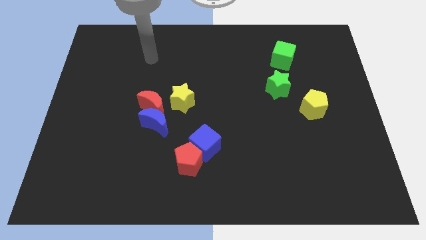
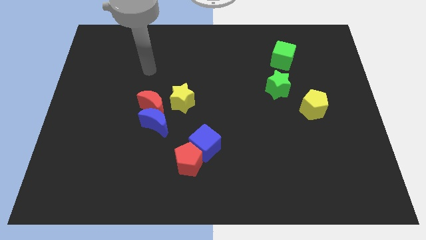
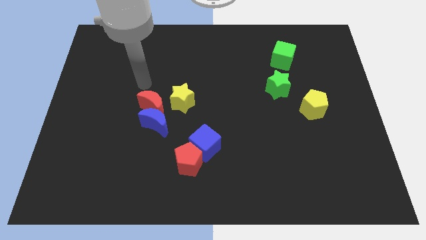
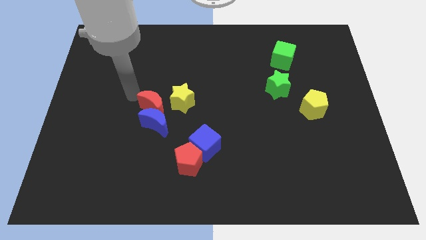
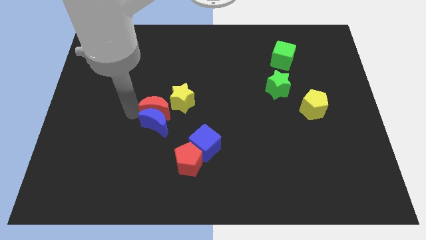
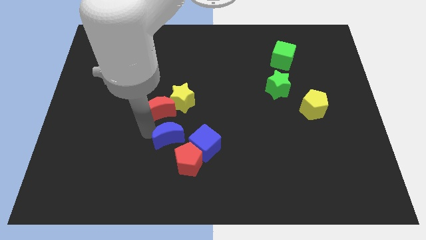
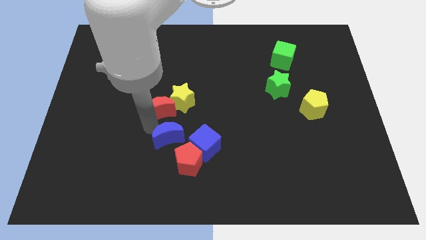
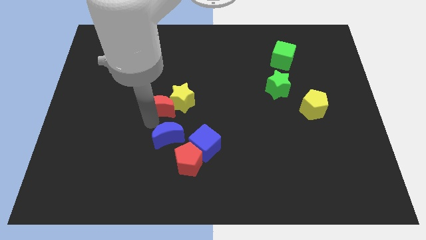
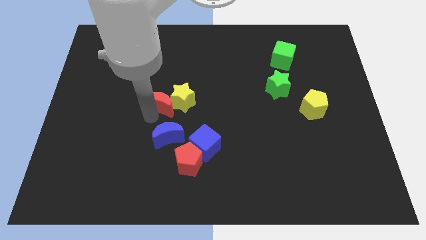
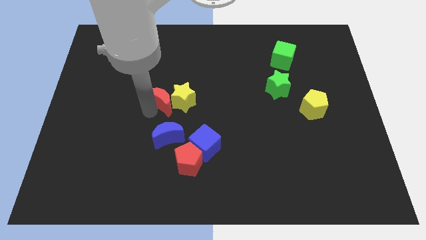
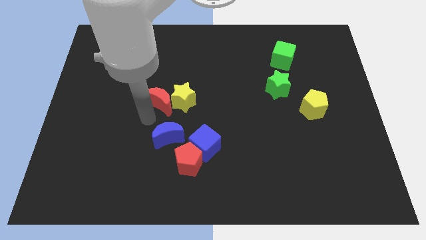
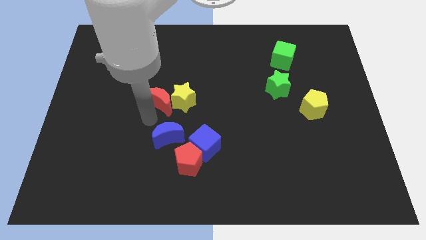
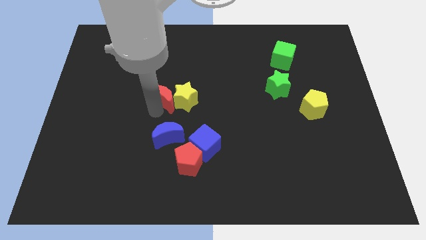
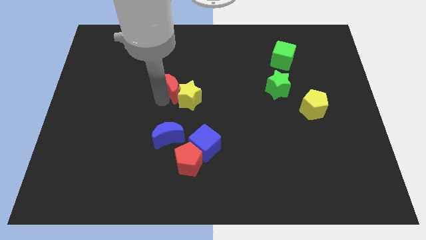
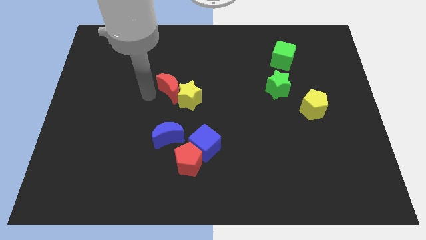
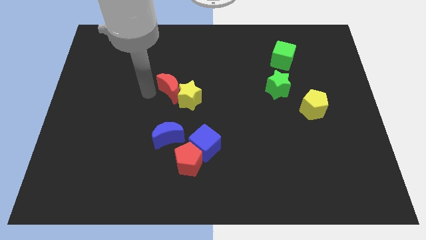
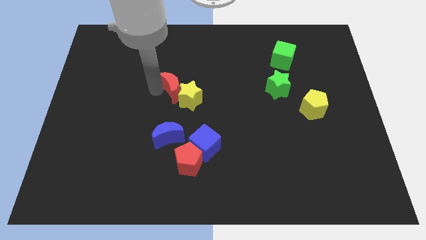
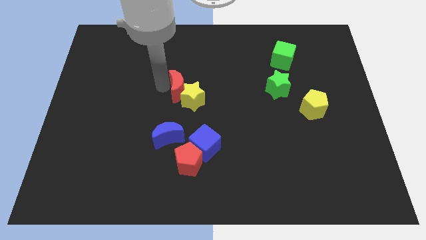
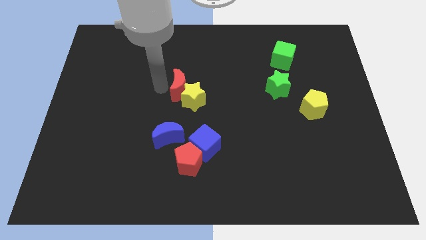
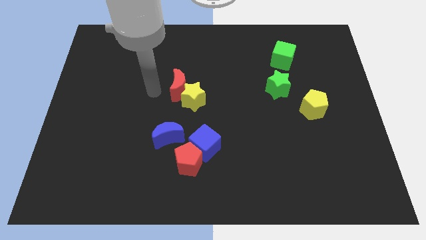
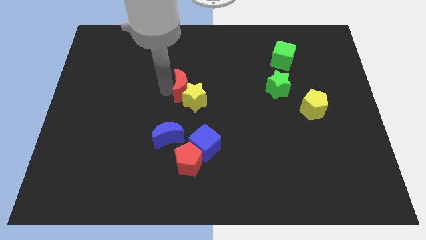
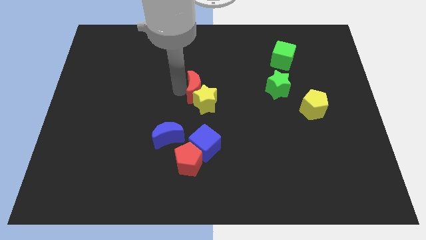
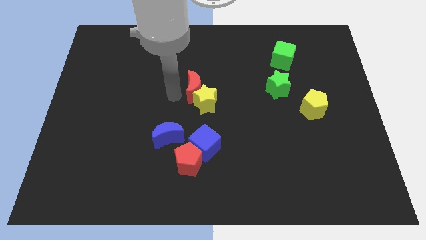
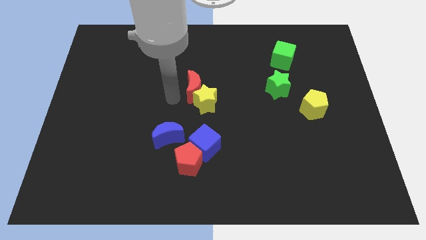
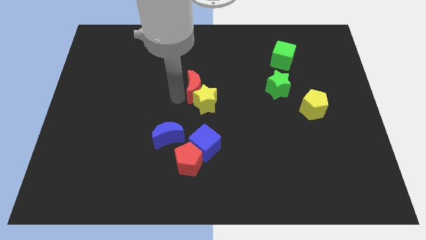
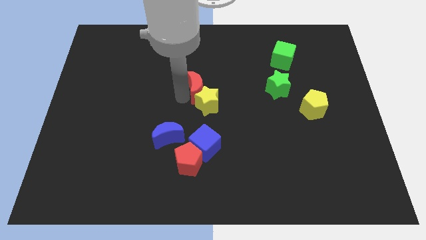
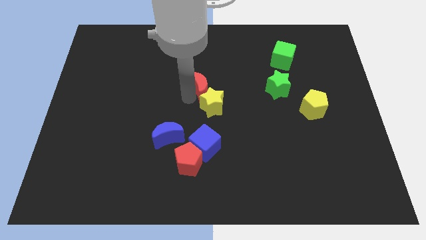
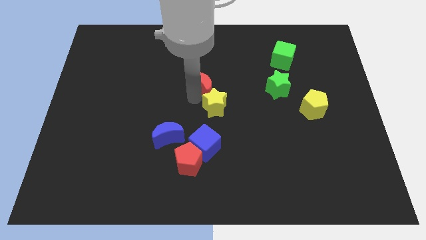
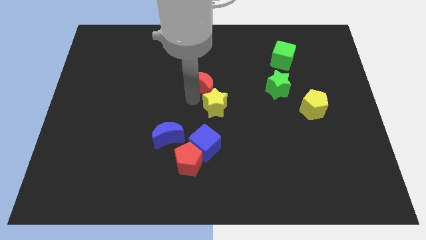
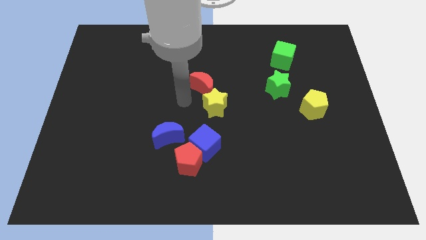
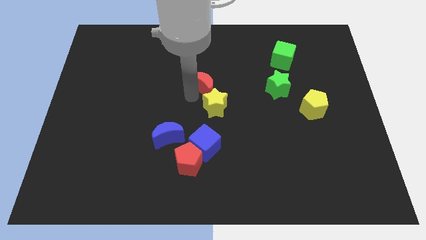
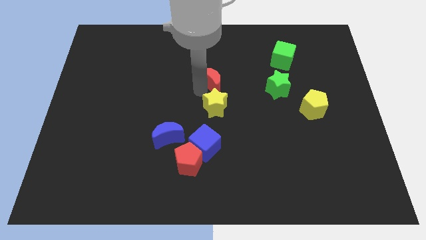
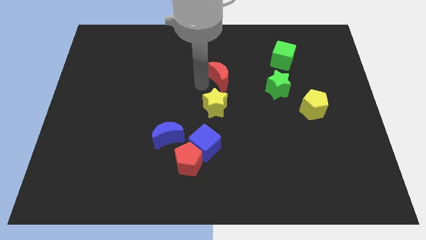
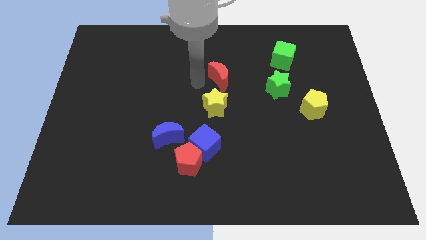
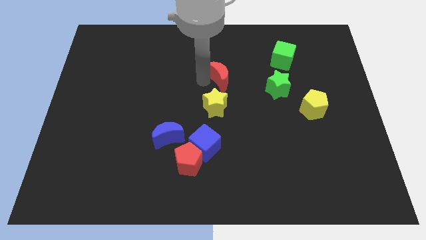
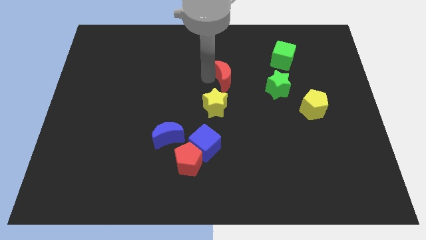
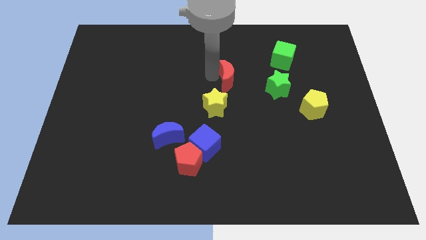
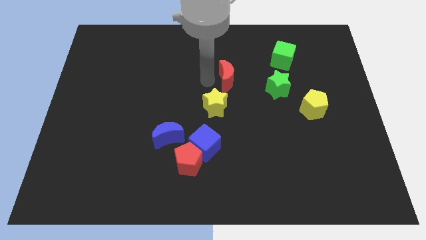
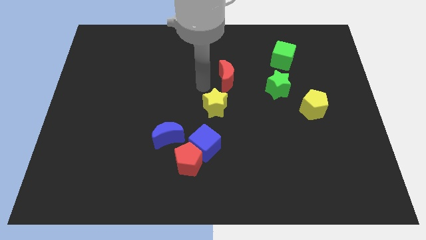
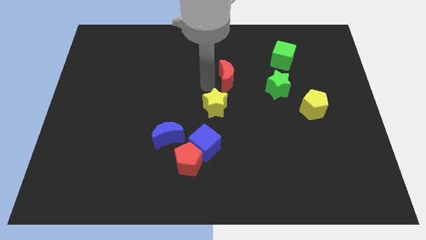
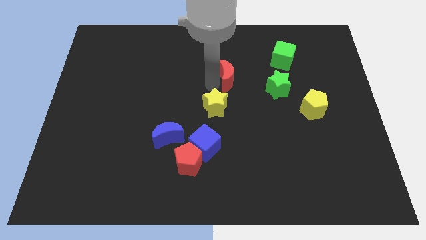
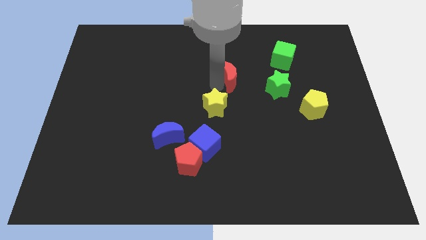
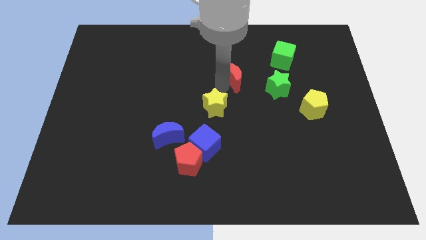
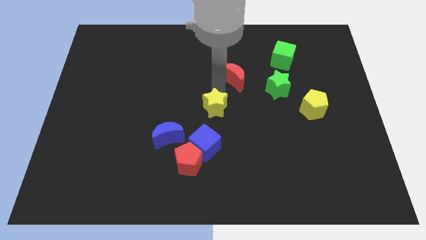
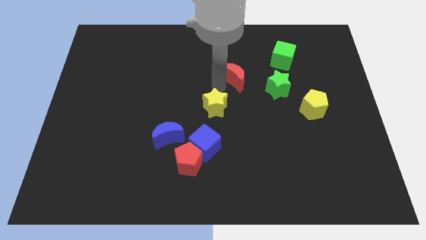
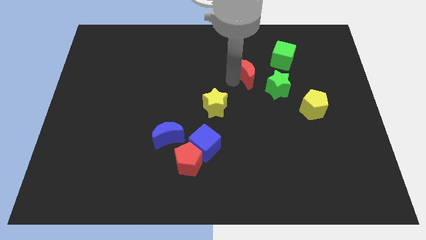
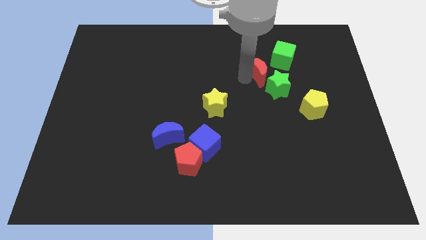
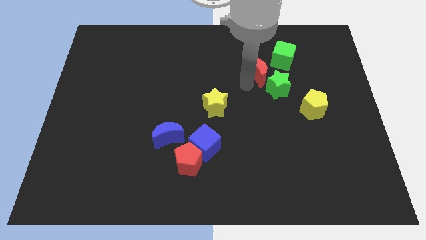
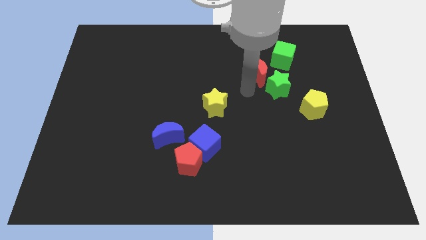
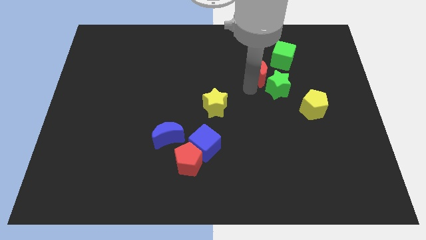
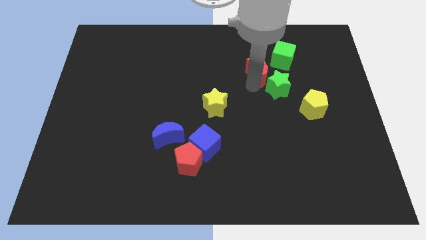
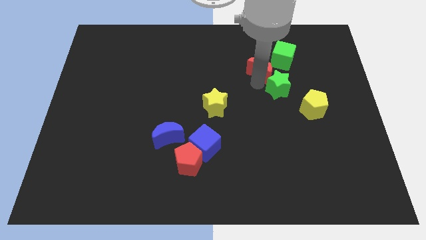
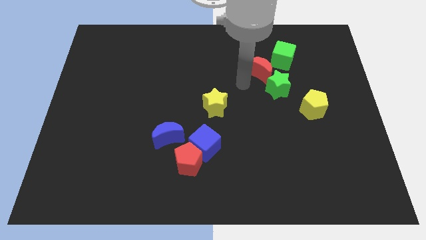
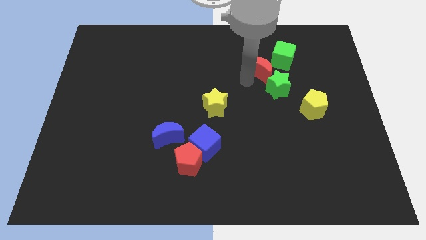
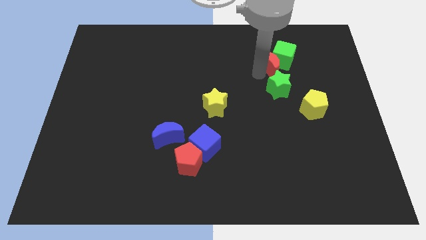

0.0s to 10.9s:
push the red moon towards the green cube

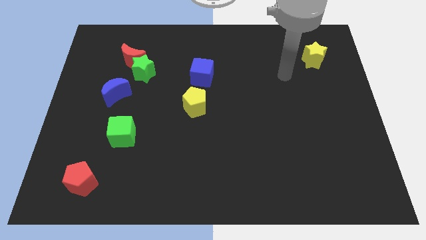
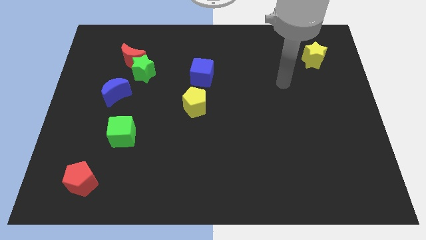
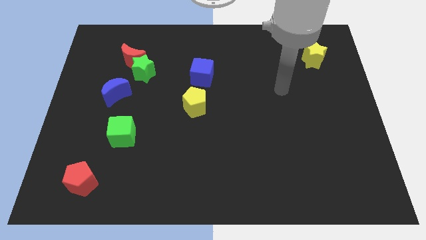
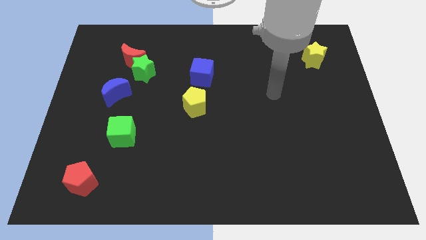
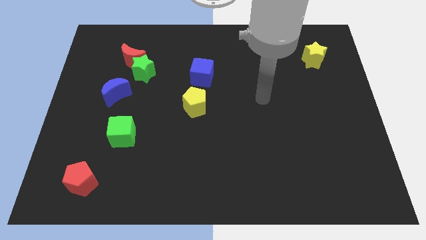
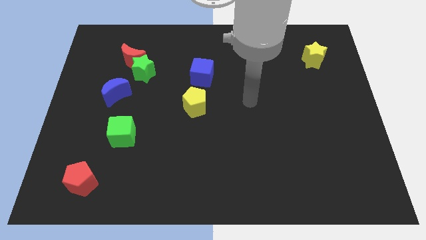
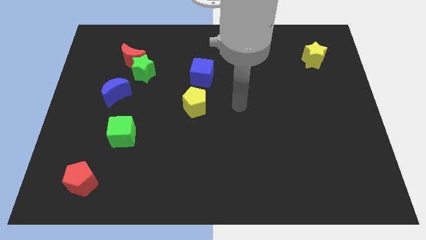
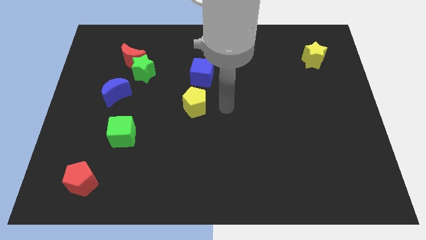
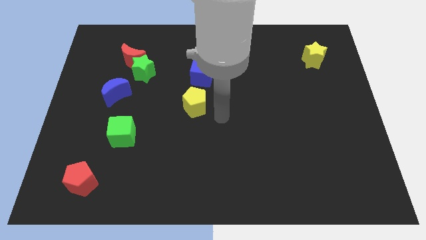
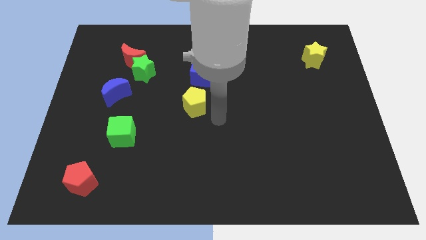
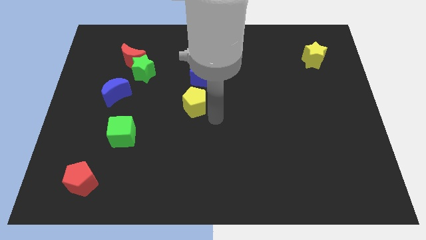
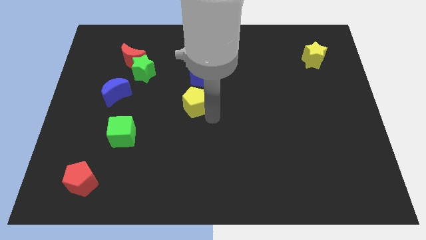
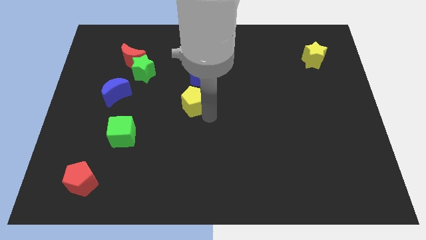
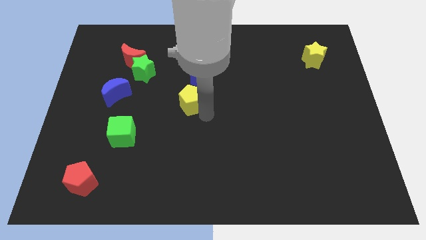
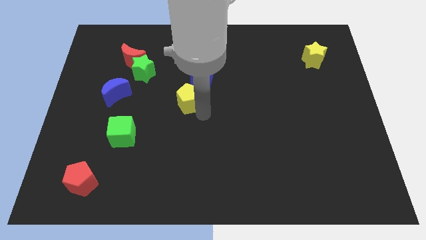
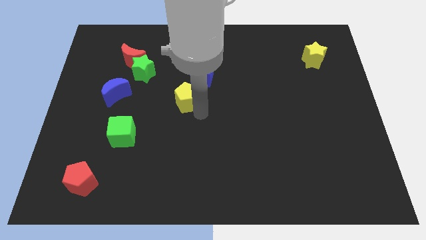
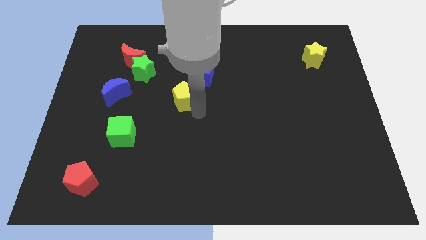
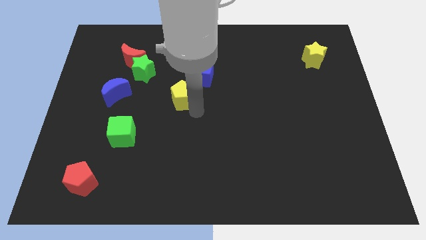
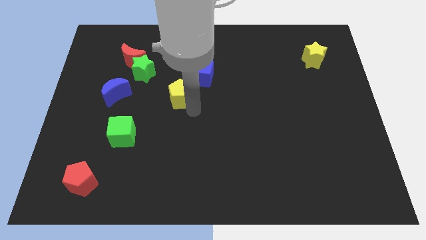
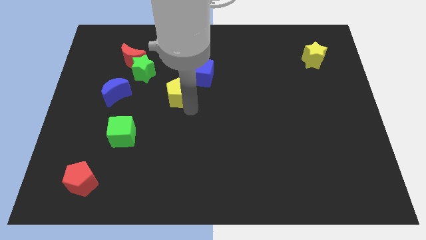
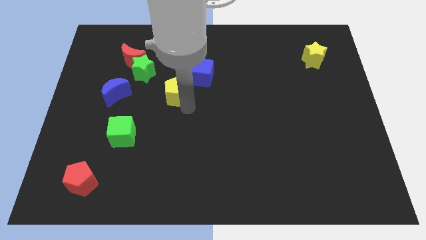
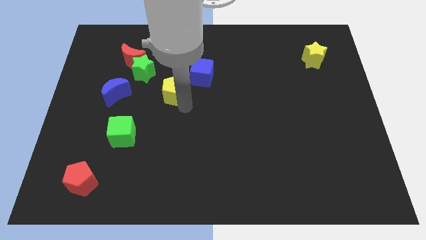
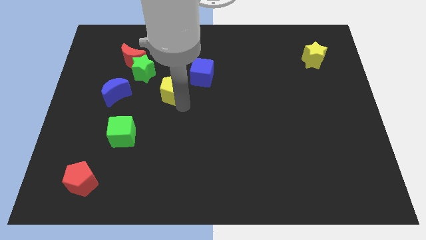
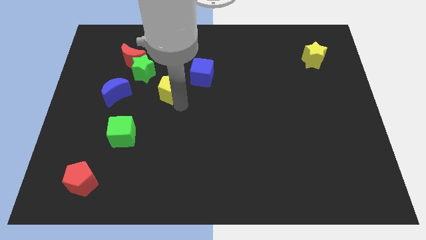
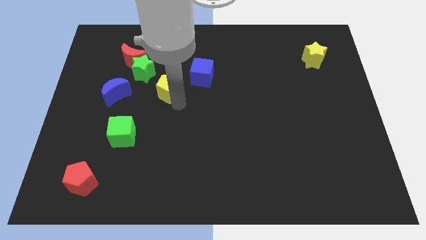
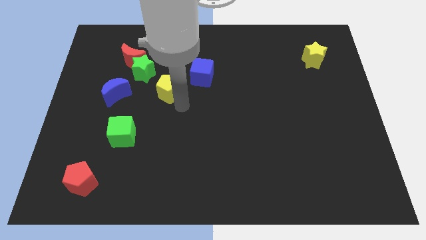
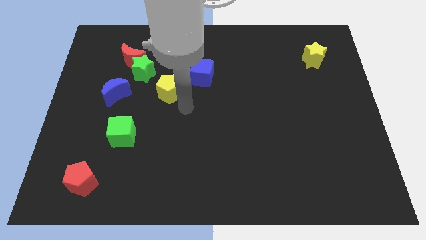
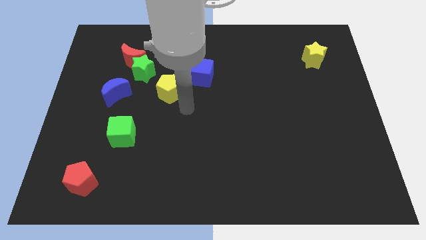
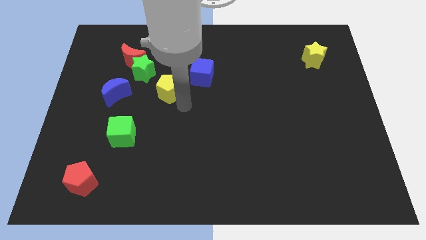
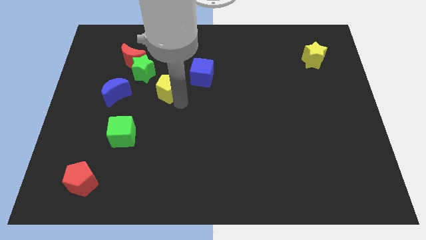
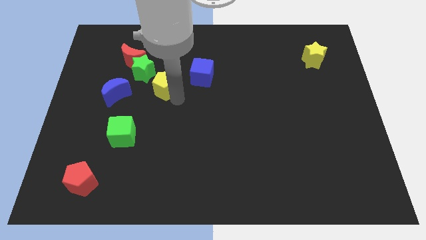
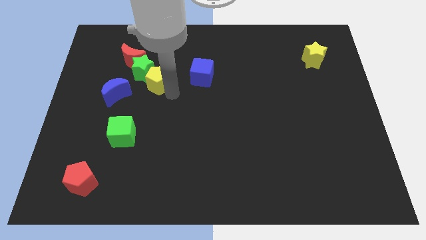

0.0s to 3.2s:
put the yellow pentagon next to the green star
